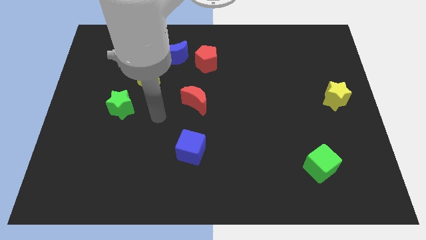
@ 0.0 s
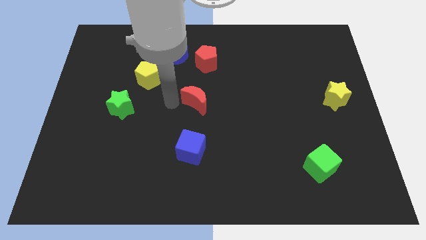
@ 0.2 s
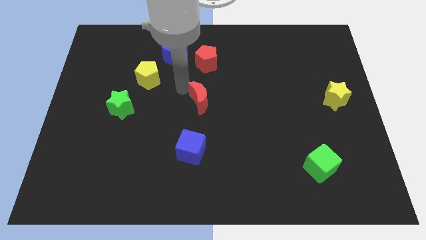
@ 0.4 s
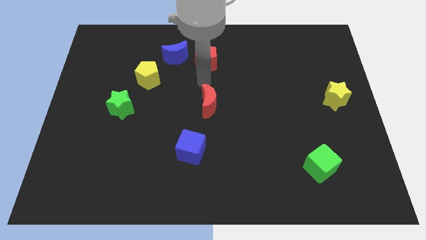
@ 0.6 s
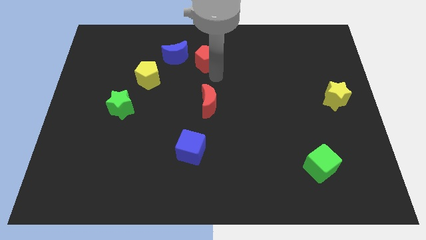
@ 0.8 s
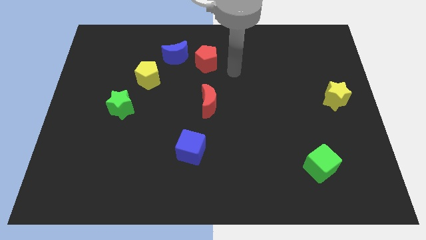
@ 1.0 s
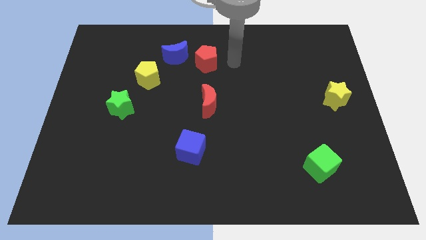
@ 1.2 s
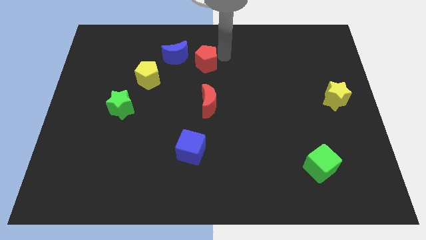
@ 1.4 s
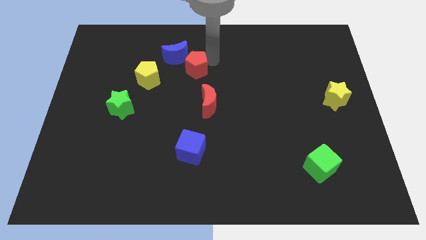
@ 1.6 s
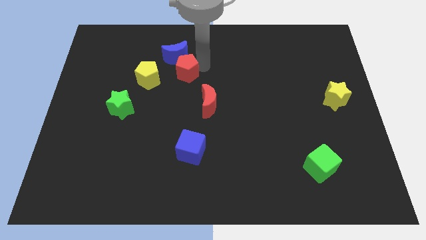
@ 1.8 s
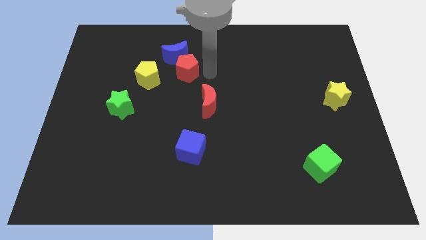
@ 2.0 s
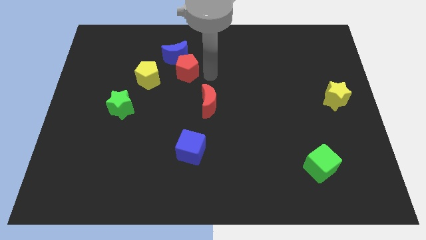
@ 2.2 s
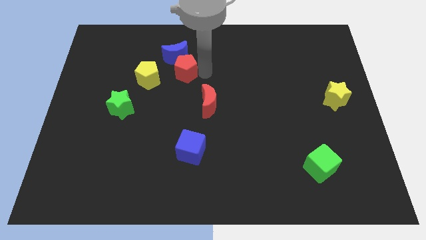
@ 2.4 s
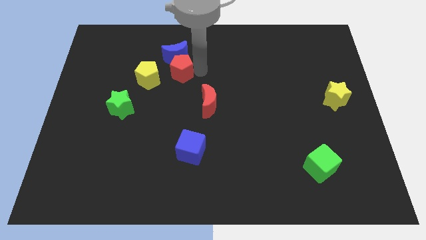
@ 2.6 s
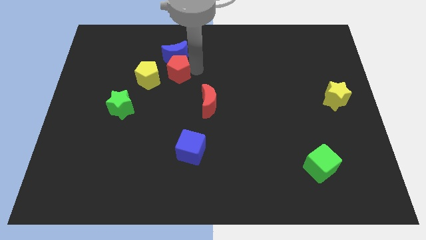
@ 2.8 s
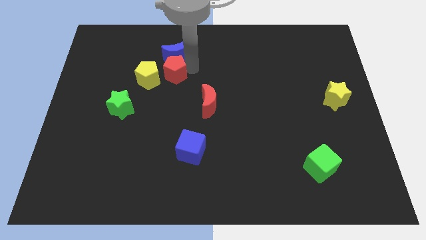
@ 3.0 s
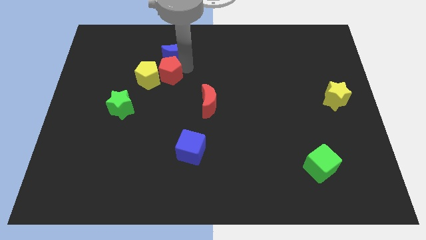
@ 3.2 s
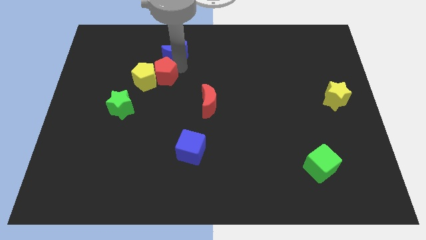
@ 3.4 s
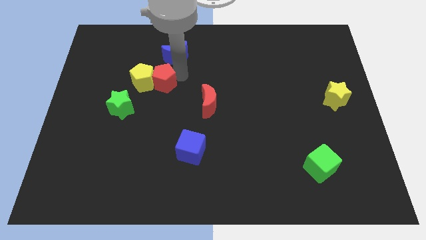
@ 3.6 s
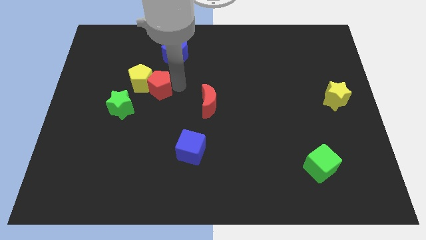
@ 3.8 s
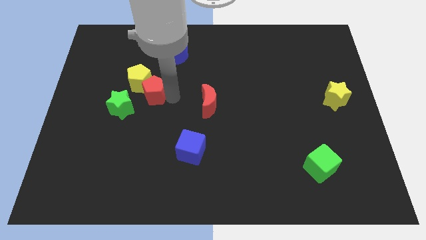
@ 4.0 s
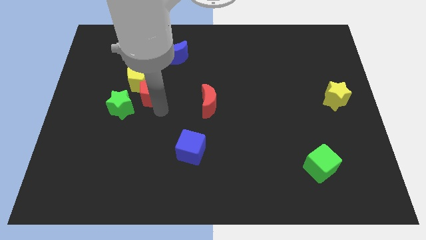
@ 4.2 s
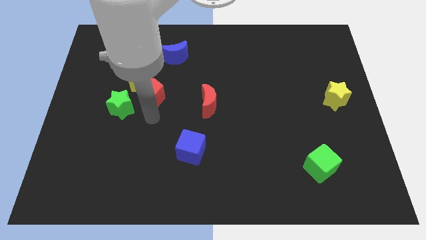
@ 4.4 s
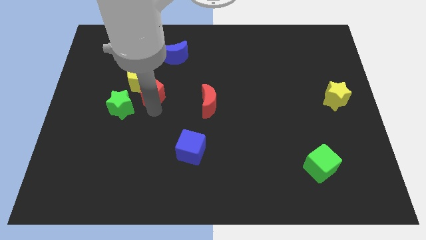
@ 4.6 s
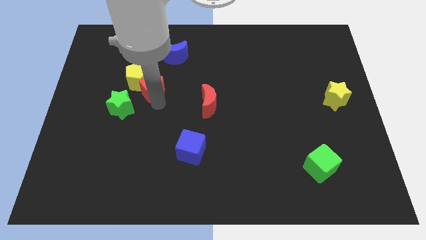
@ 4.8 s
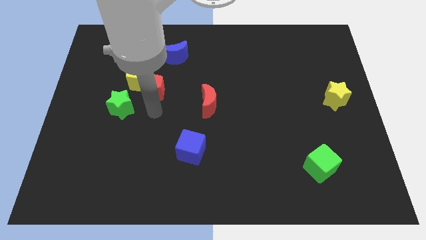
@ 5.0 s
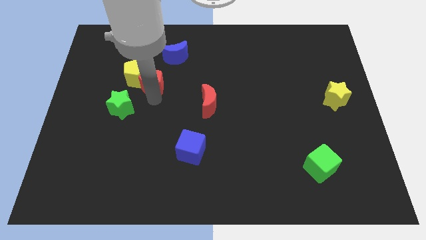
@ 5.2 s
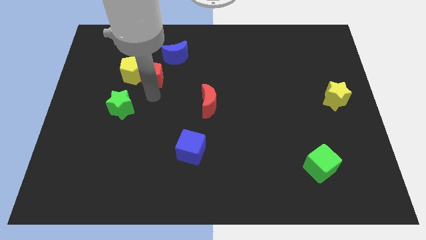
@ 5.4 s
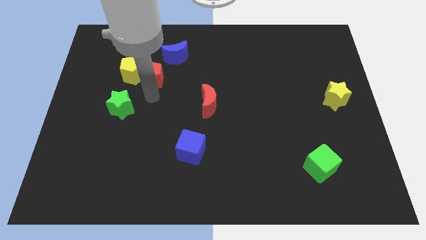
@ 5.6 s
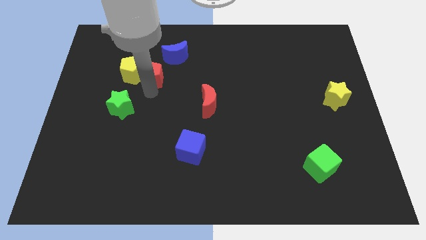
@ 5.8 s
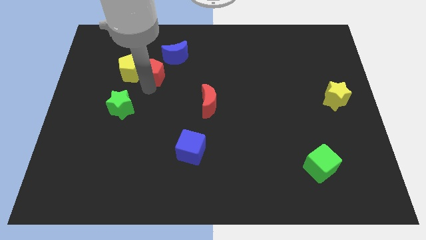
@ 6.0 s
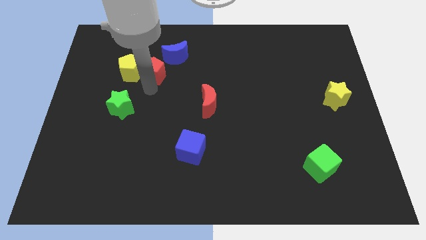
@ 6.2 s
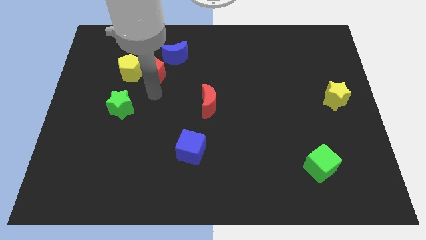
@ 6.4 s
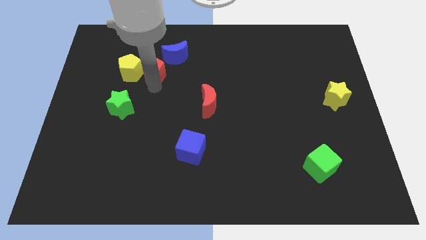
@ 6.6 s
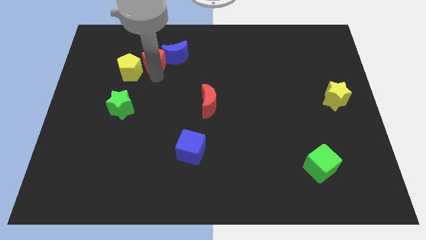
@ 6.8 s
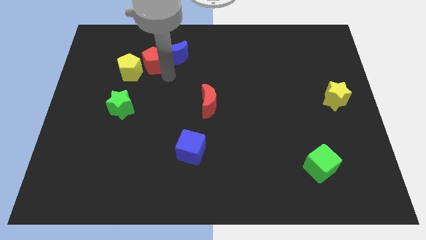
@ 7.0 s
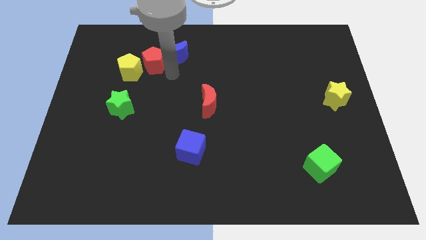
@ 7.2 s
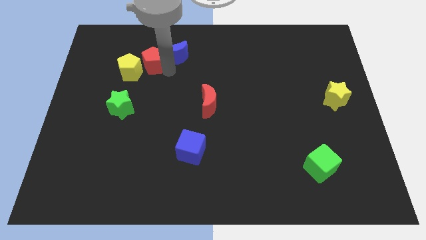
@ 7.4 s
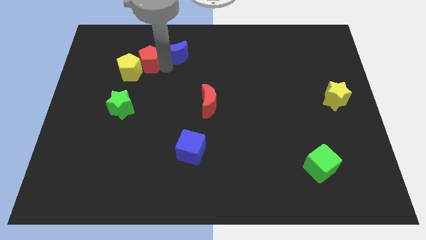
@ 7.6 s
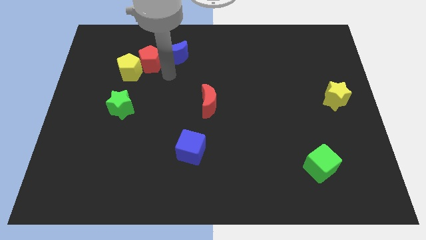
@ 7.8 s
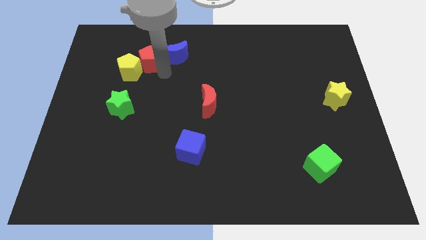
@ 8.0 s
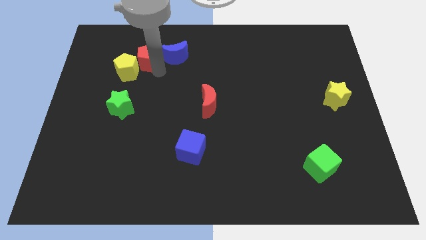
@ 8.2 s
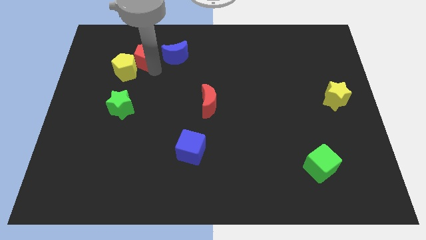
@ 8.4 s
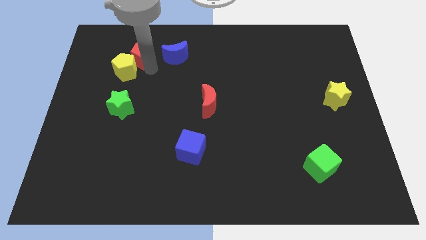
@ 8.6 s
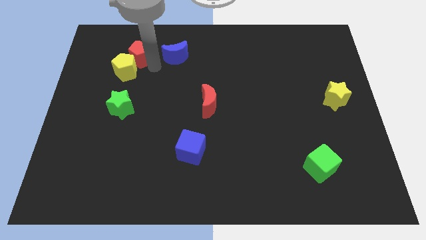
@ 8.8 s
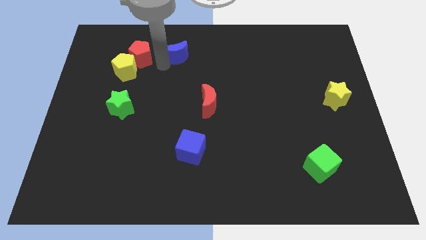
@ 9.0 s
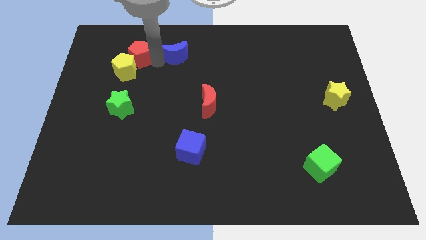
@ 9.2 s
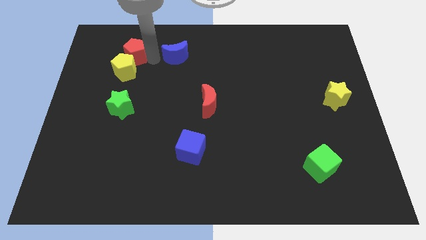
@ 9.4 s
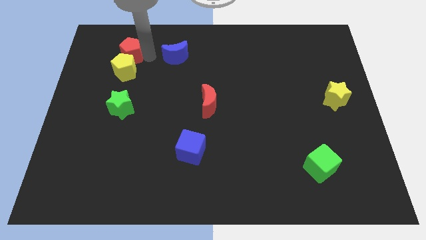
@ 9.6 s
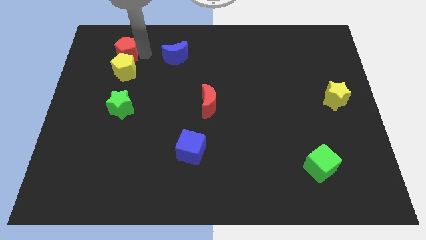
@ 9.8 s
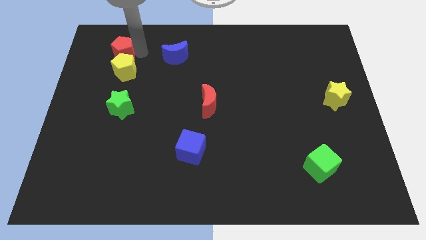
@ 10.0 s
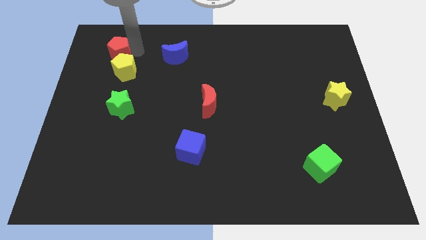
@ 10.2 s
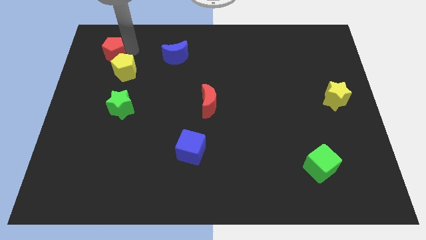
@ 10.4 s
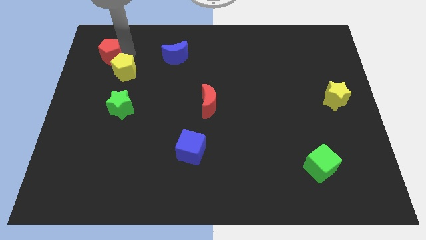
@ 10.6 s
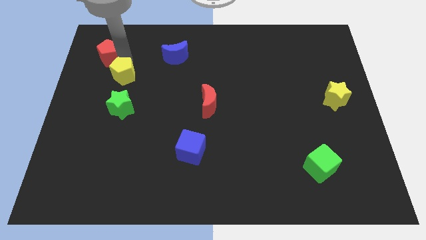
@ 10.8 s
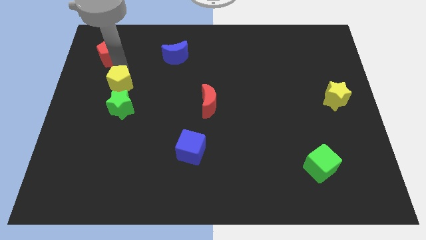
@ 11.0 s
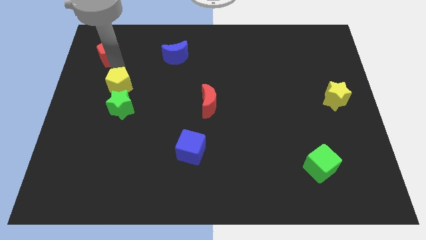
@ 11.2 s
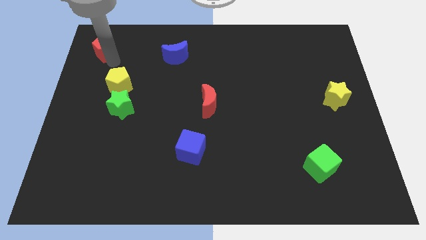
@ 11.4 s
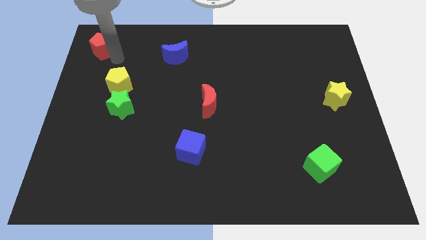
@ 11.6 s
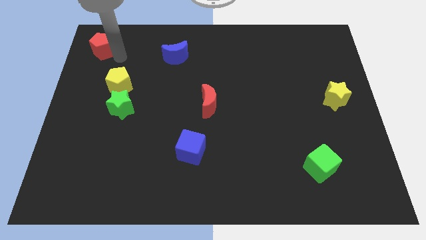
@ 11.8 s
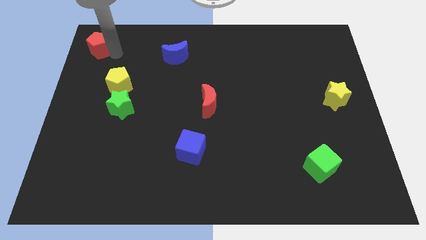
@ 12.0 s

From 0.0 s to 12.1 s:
move the red pentagon to the top left
